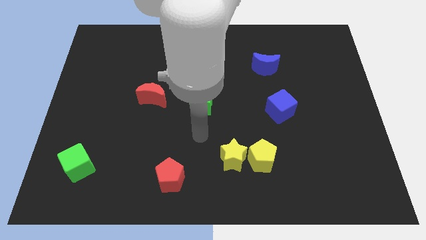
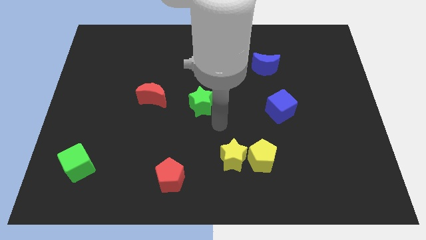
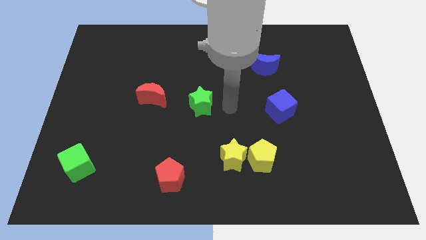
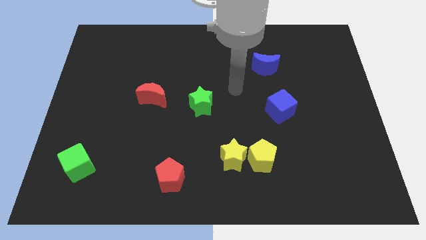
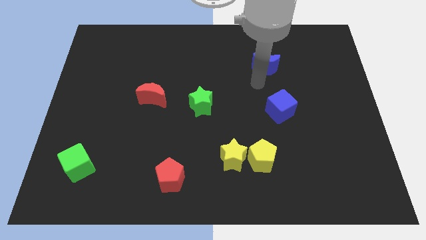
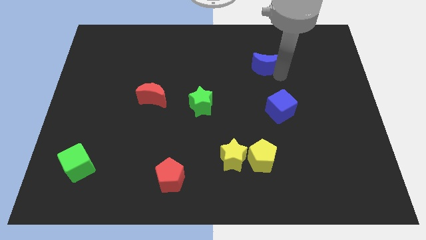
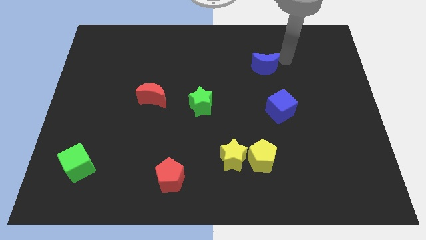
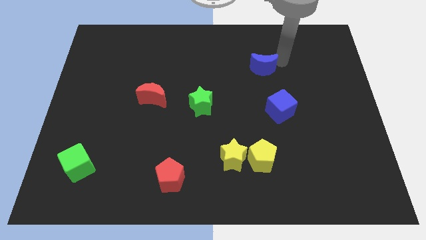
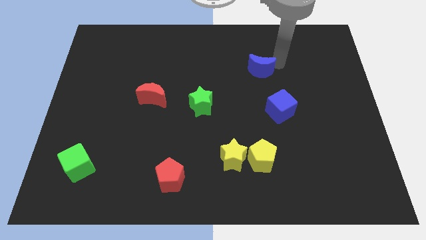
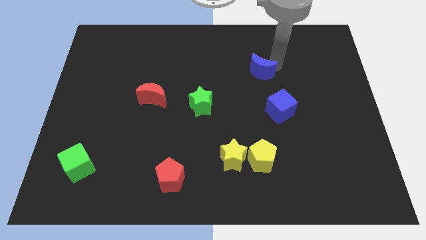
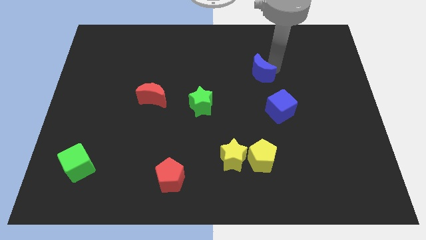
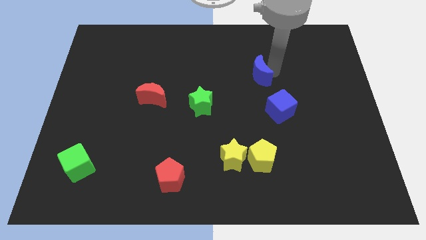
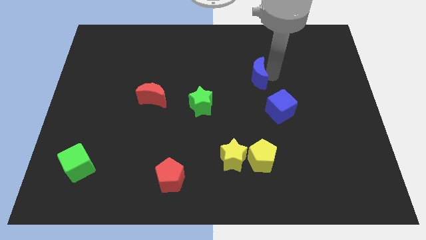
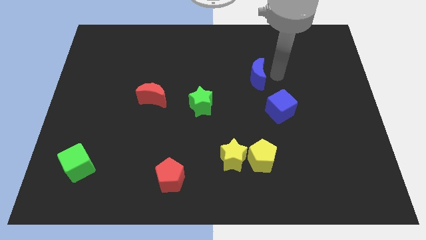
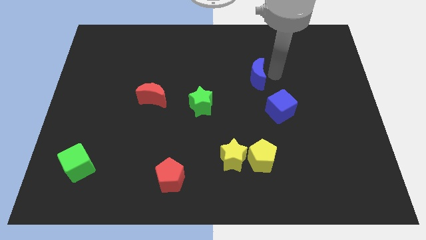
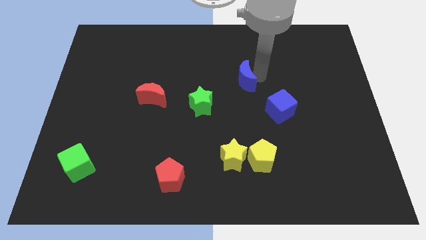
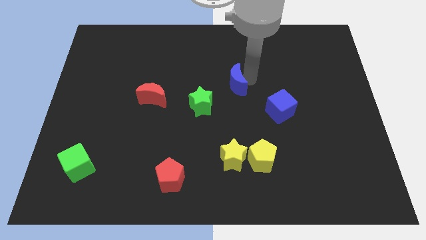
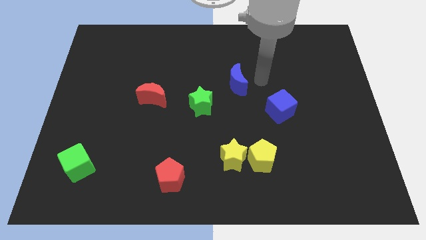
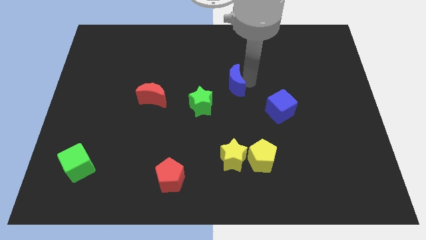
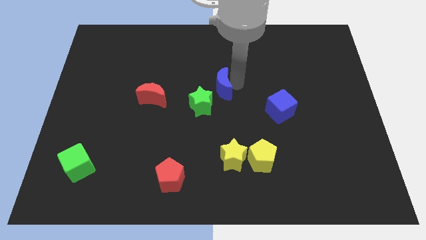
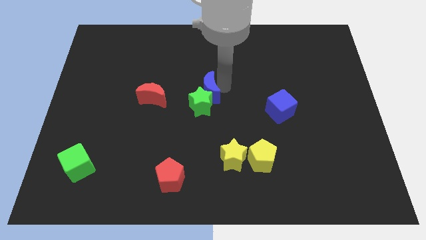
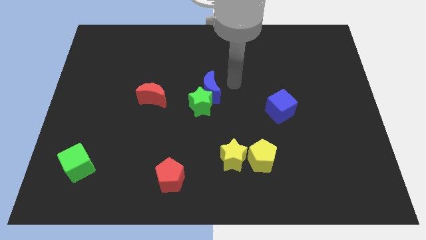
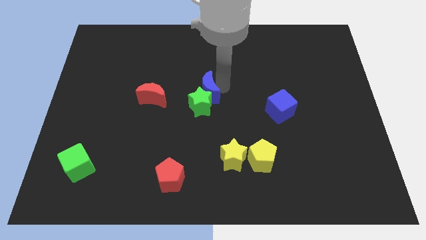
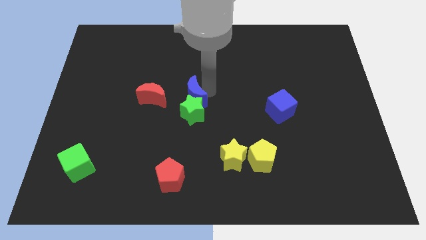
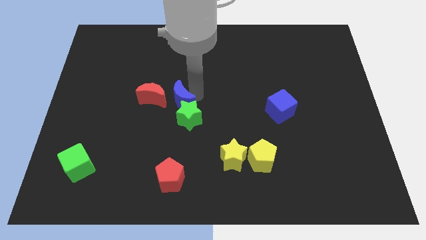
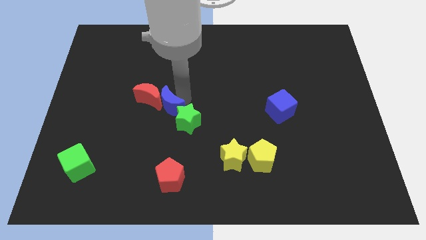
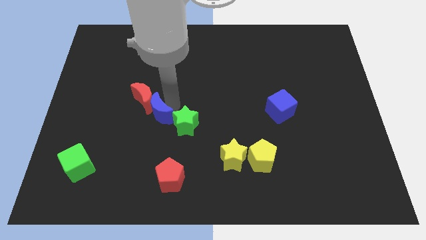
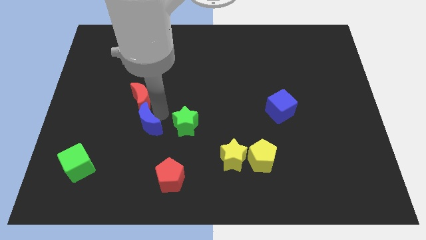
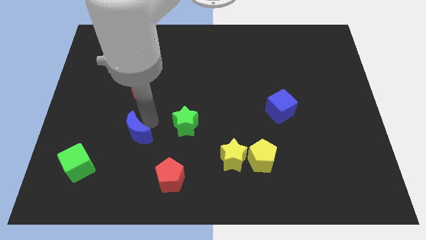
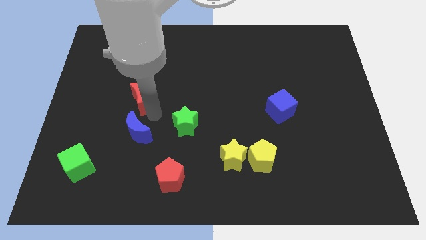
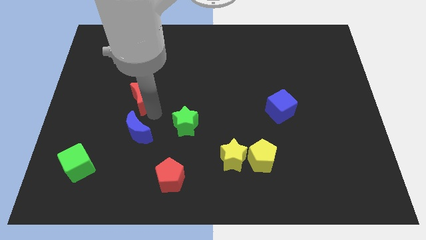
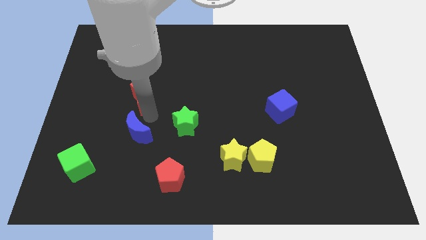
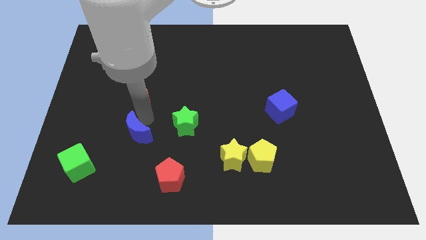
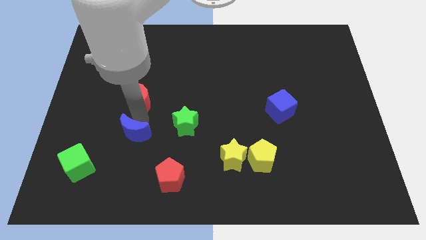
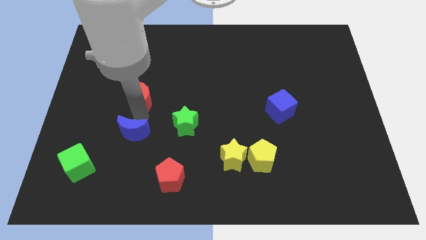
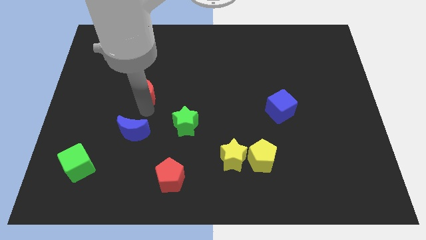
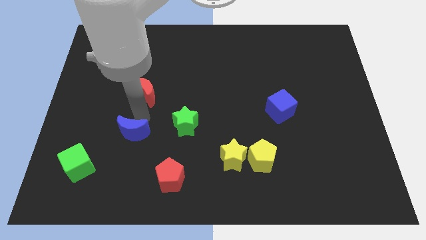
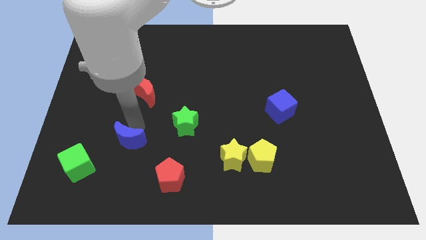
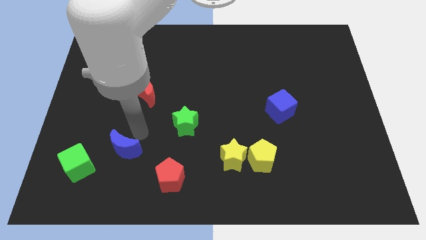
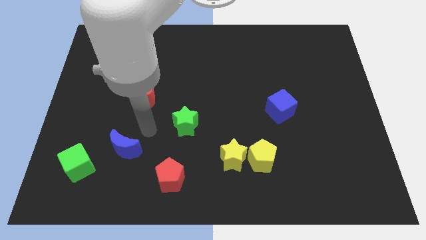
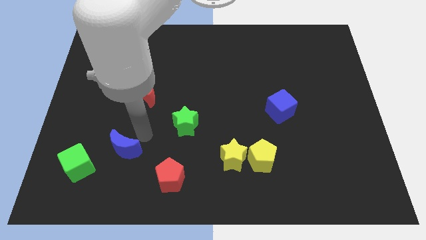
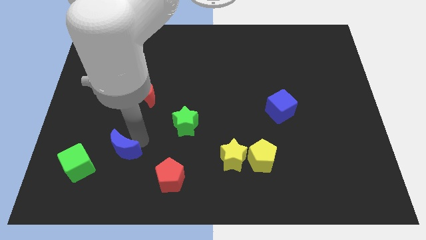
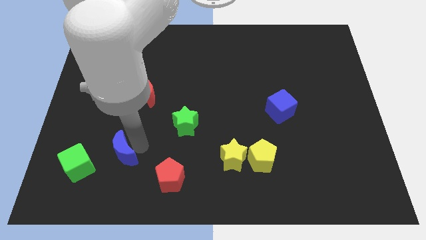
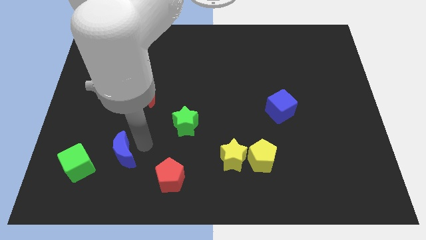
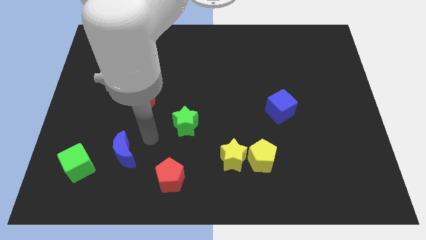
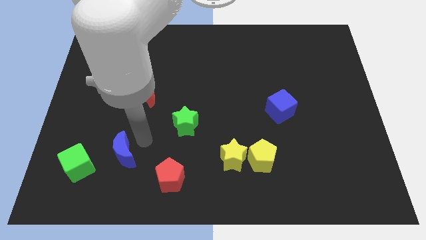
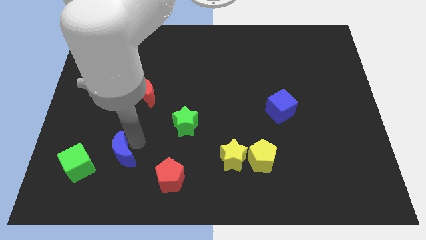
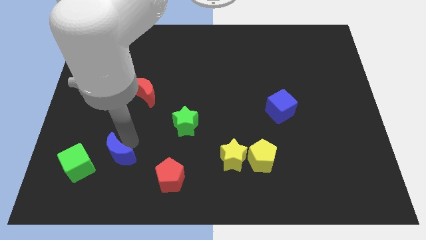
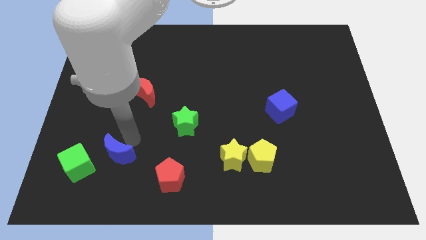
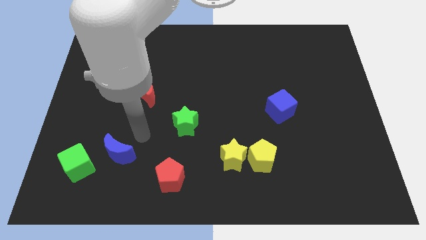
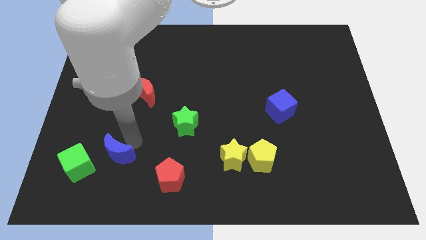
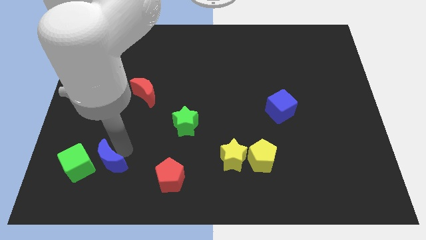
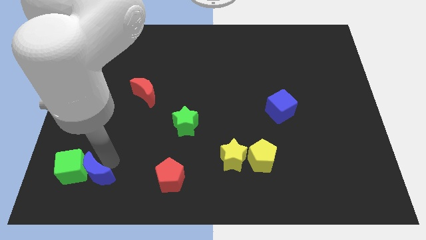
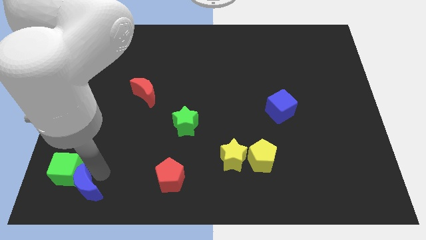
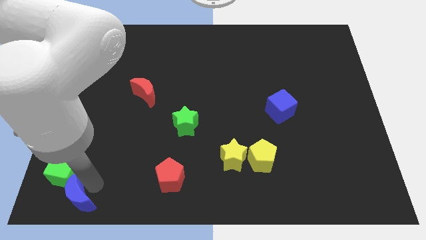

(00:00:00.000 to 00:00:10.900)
push the blue moon to the bottom left of the board

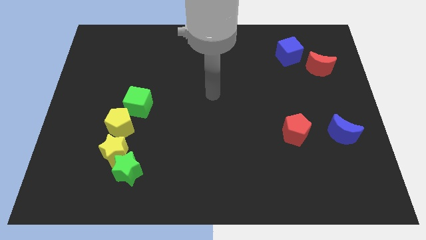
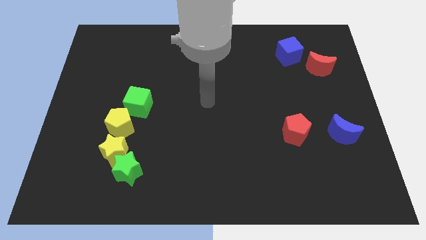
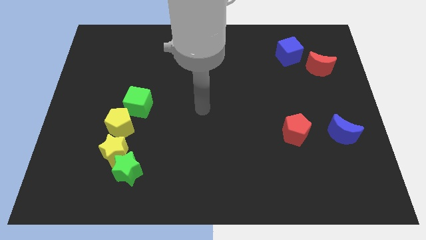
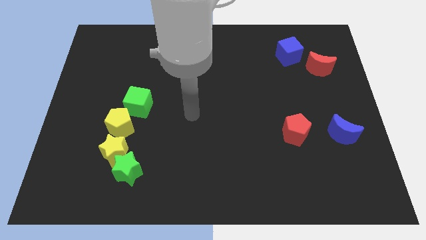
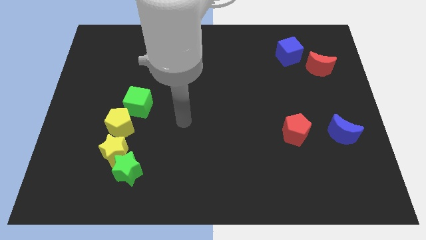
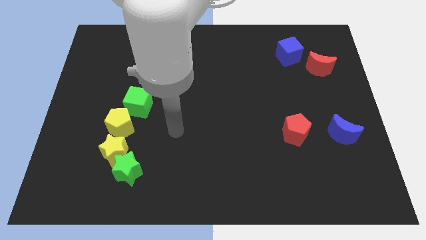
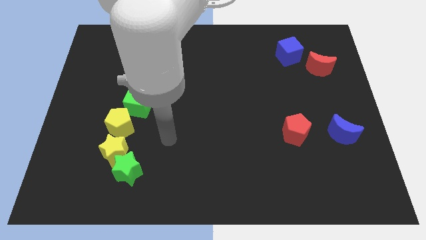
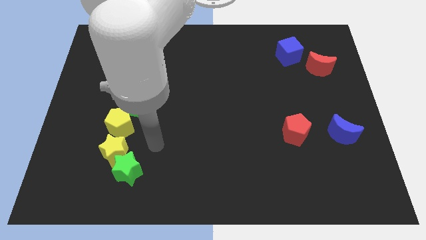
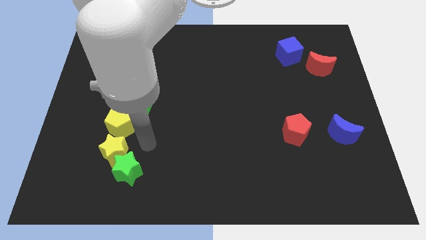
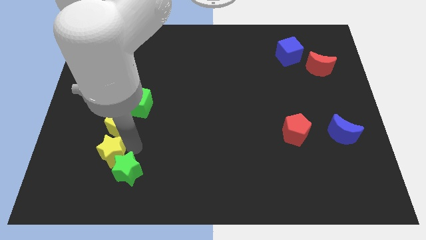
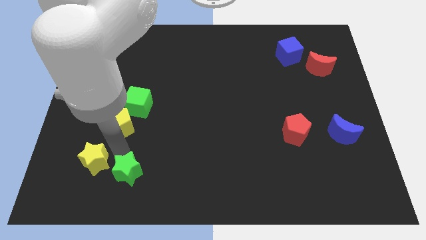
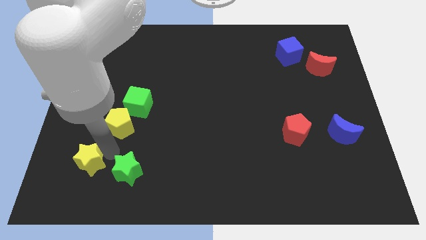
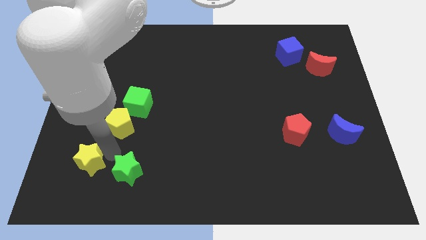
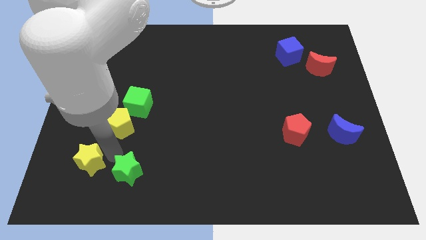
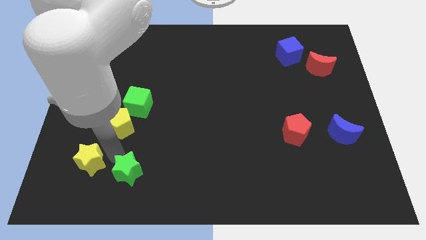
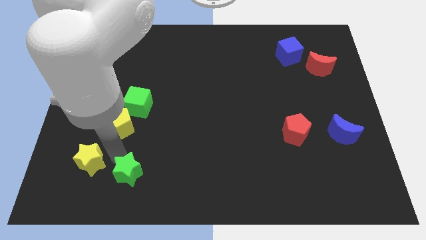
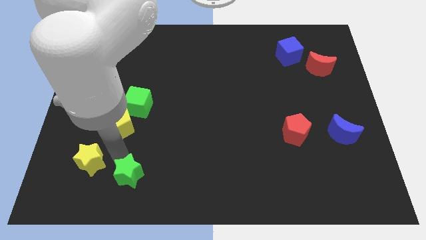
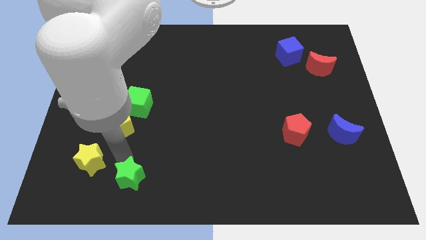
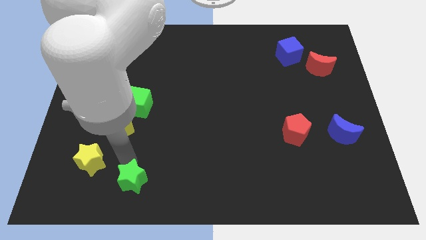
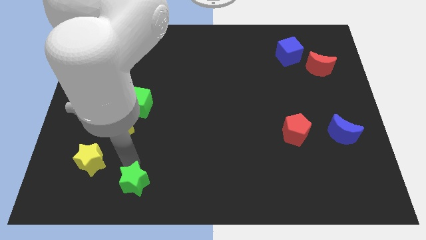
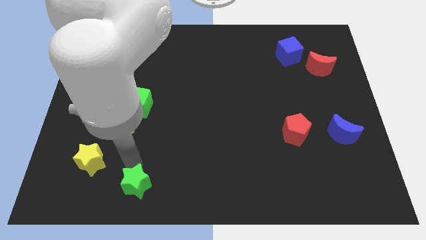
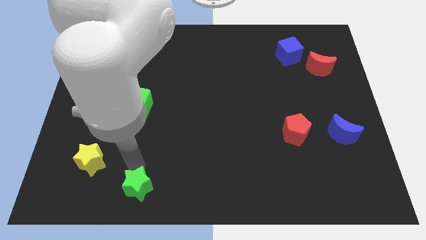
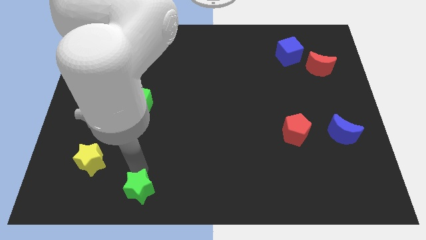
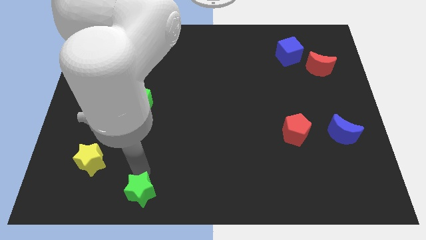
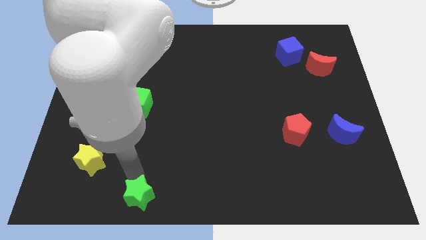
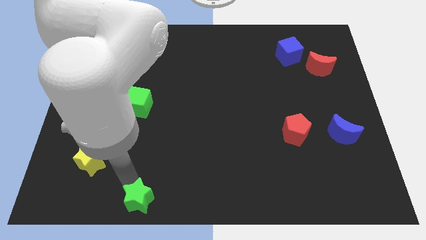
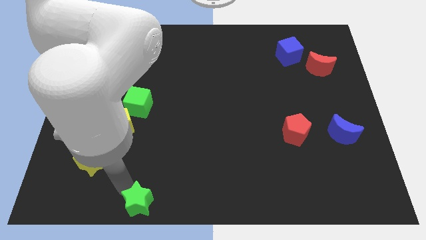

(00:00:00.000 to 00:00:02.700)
move the green star to the bottom
